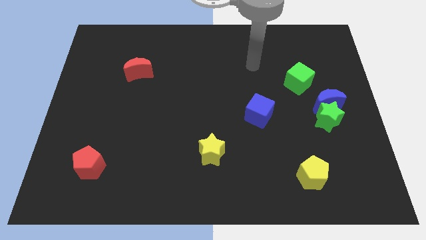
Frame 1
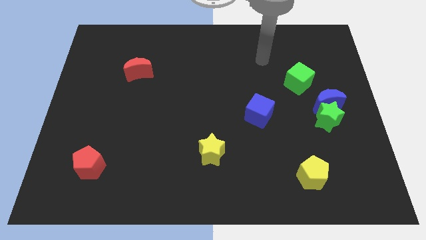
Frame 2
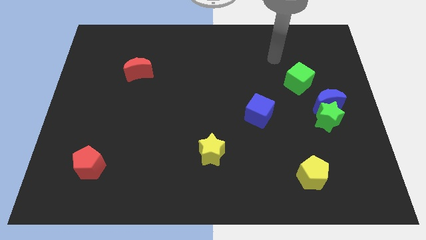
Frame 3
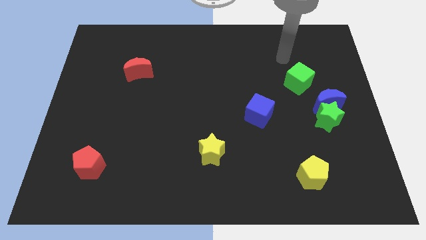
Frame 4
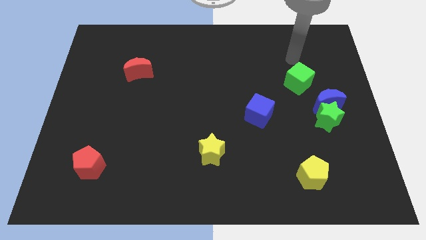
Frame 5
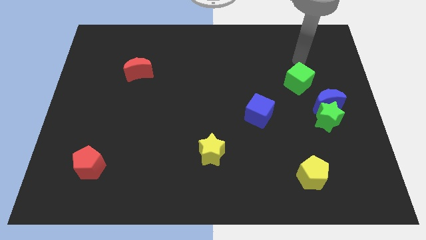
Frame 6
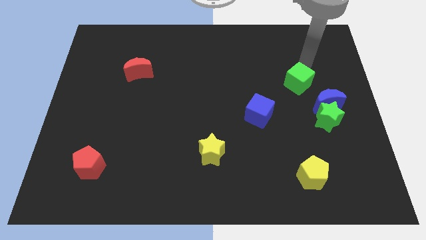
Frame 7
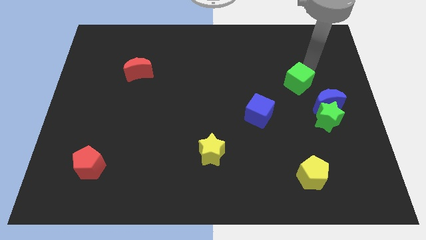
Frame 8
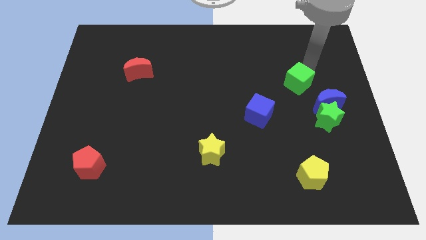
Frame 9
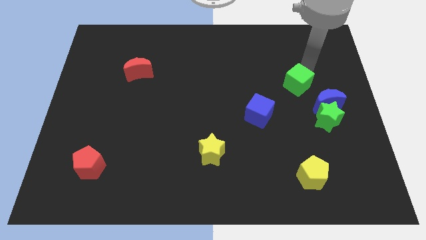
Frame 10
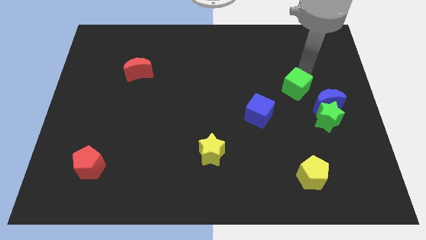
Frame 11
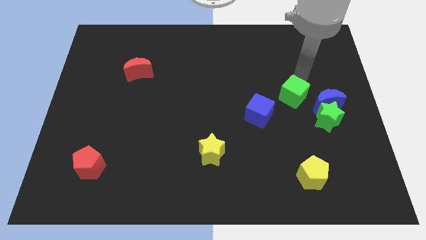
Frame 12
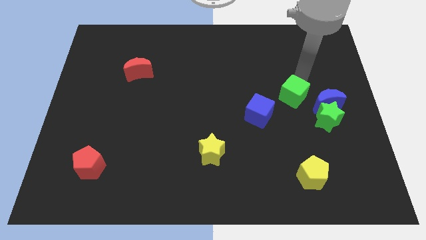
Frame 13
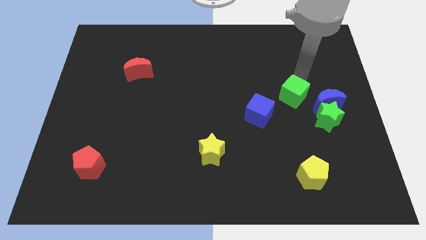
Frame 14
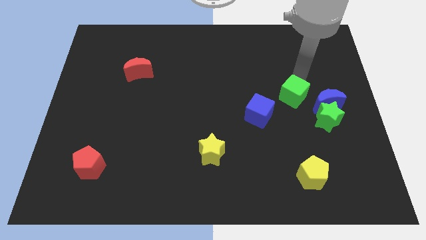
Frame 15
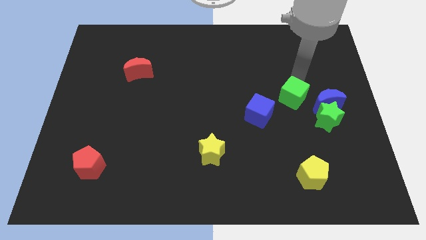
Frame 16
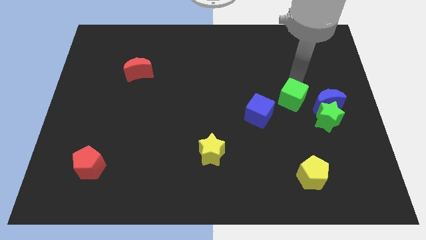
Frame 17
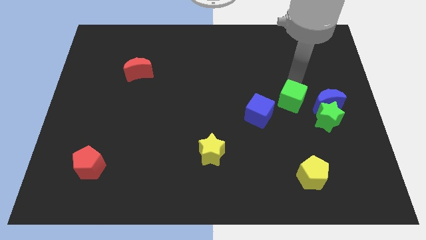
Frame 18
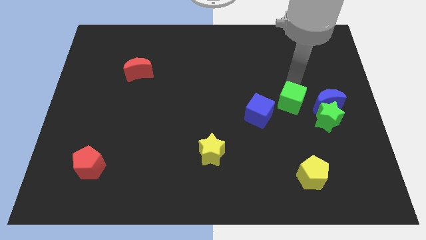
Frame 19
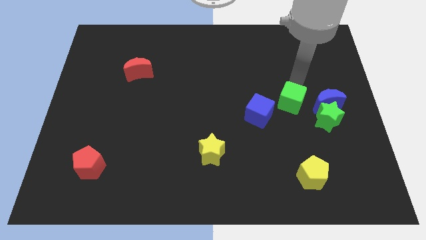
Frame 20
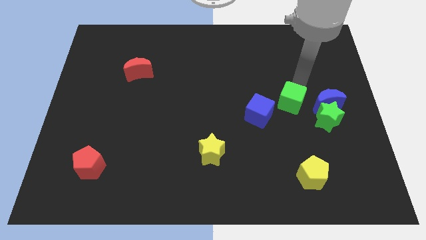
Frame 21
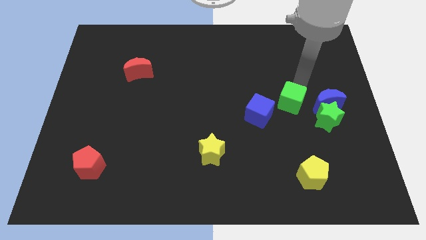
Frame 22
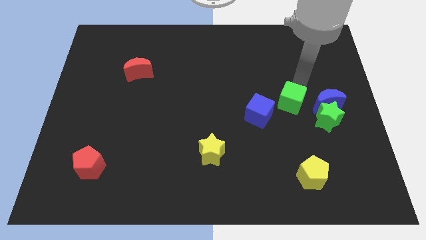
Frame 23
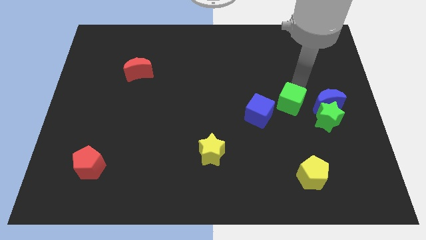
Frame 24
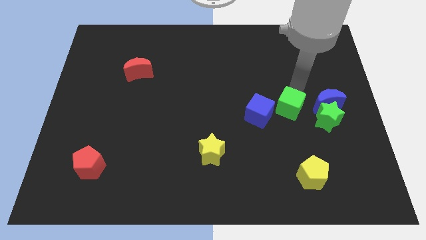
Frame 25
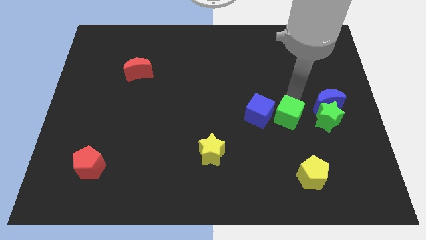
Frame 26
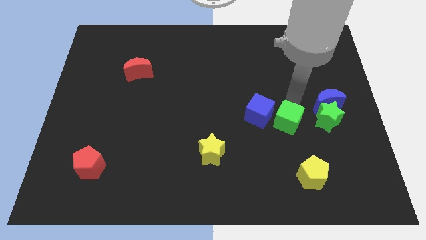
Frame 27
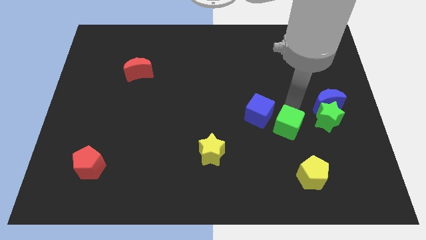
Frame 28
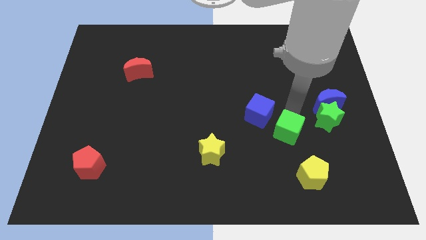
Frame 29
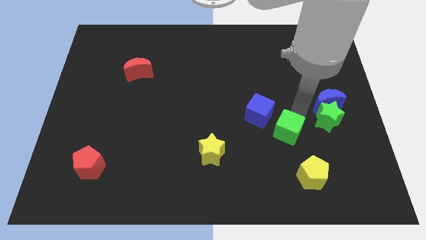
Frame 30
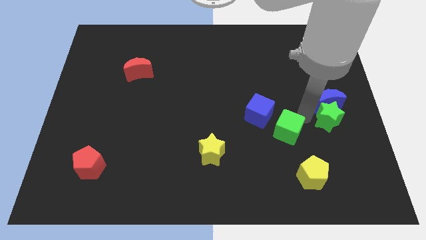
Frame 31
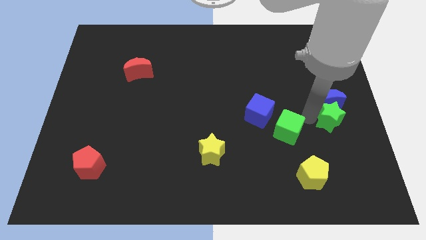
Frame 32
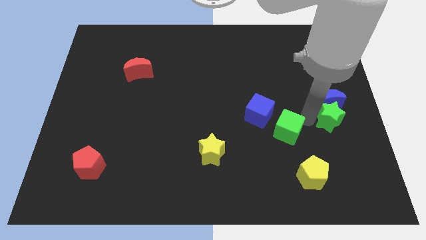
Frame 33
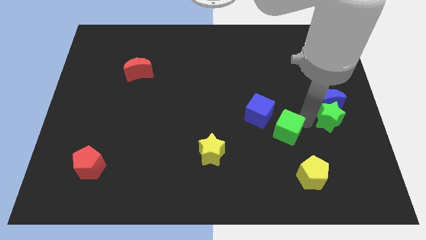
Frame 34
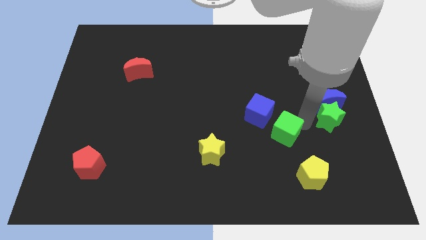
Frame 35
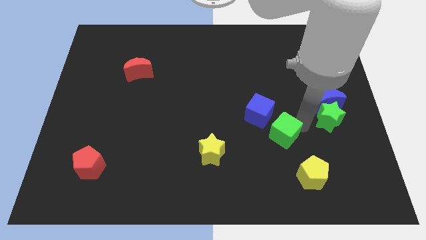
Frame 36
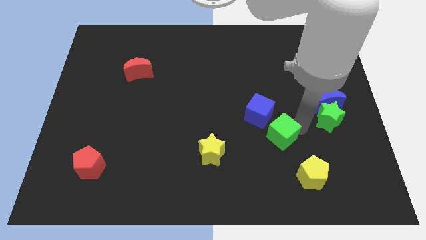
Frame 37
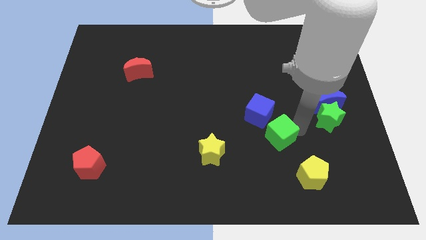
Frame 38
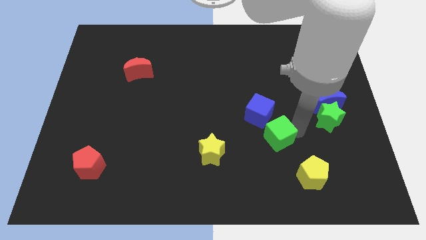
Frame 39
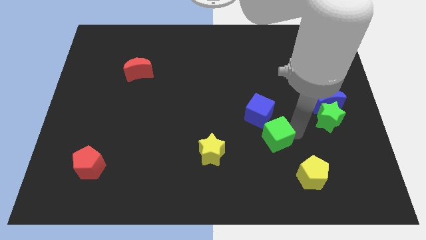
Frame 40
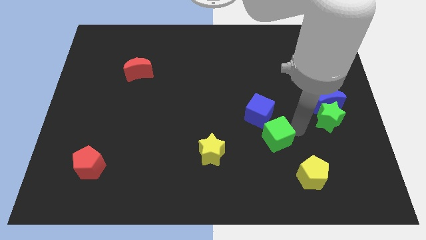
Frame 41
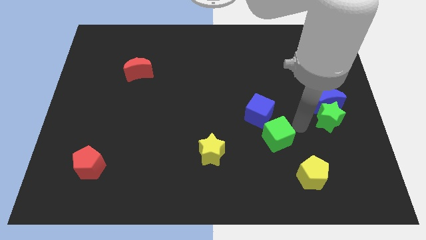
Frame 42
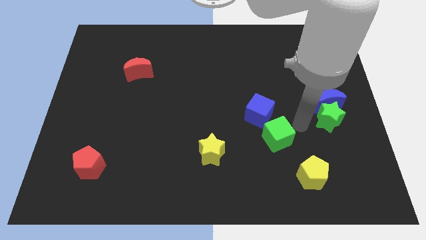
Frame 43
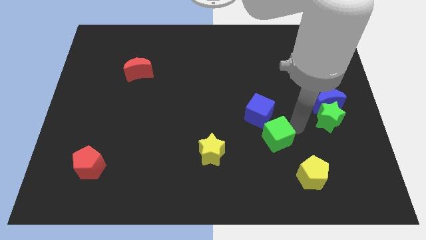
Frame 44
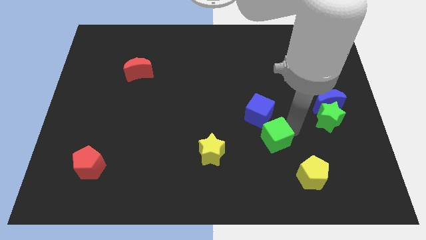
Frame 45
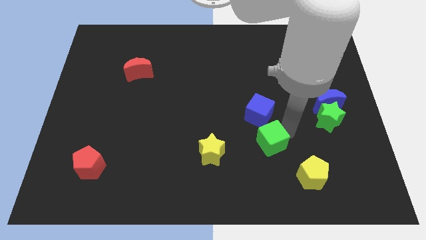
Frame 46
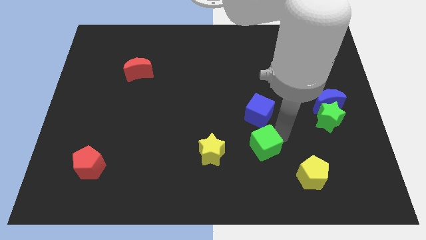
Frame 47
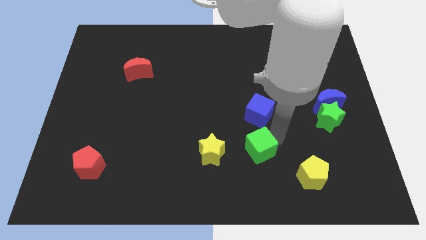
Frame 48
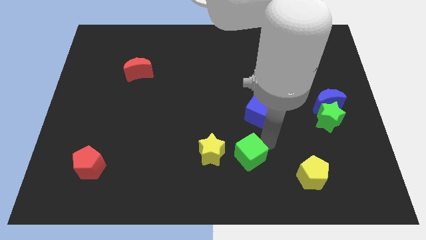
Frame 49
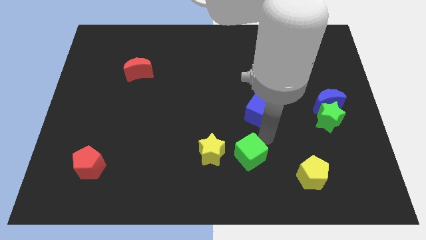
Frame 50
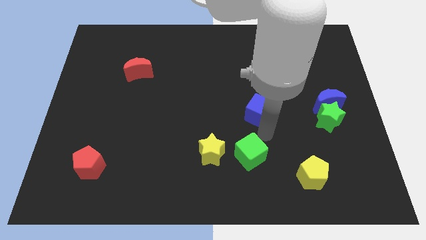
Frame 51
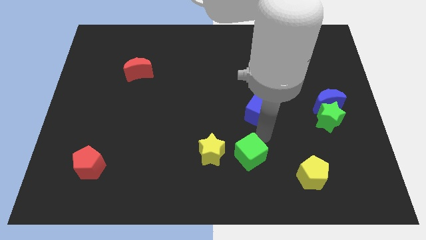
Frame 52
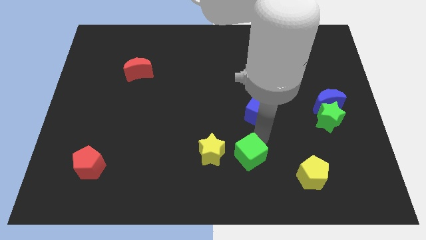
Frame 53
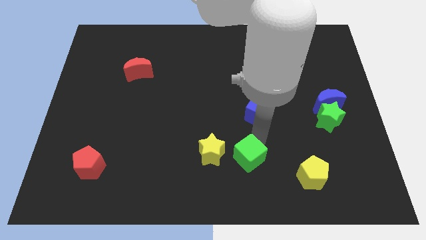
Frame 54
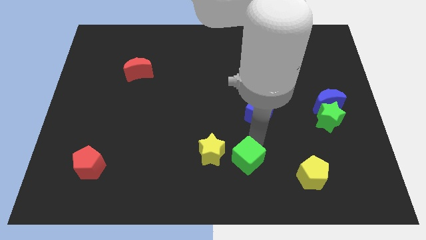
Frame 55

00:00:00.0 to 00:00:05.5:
slide the green cube to the bottom right side of the yellow star

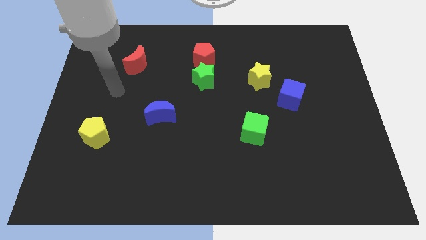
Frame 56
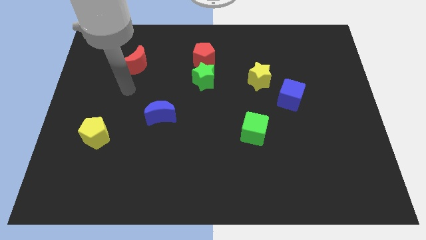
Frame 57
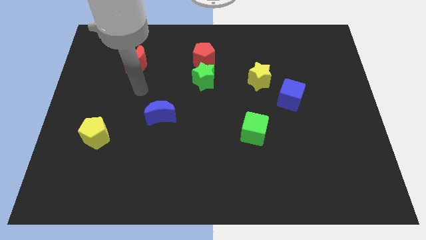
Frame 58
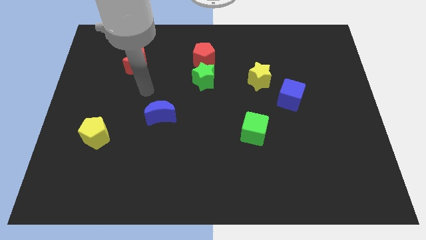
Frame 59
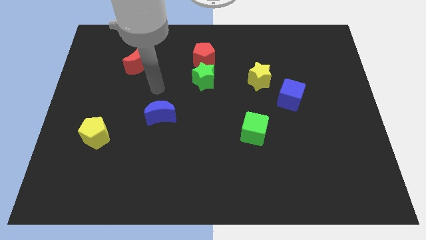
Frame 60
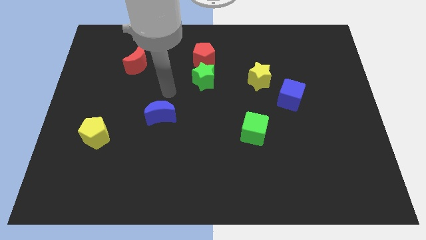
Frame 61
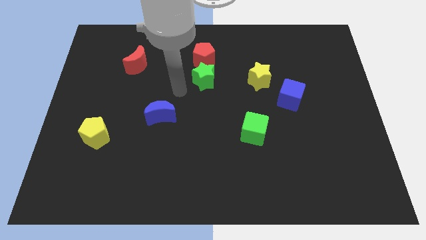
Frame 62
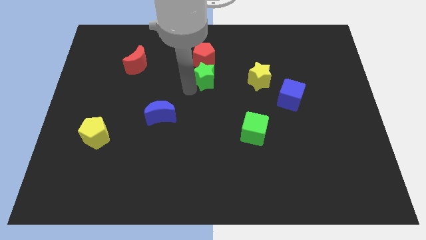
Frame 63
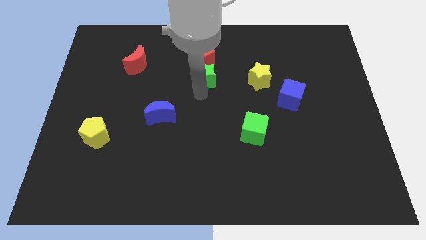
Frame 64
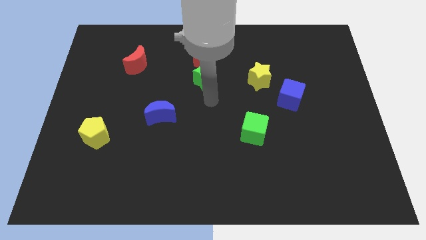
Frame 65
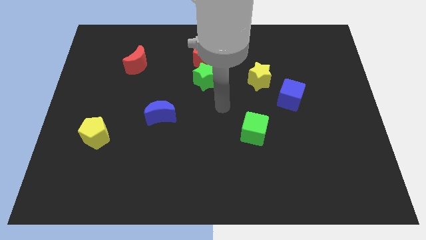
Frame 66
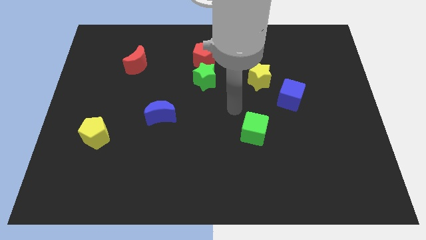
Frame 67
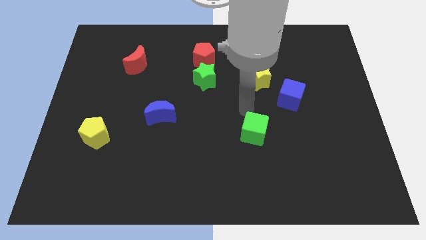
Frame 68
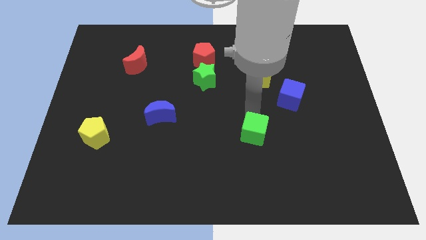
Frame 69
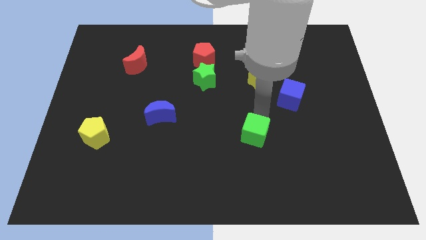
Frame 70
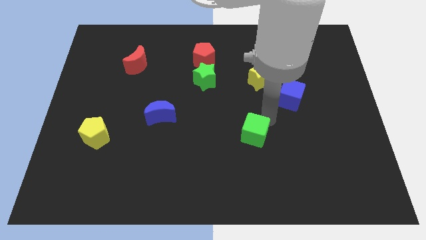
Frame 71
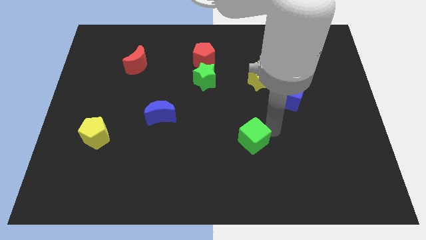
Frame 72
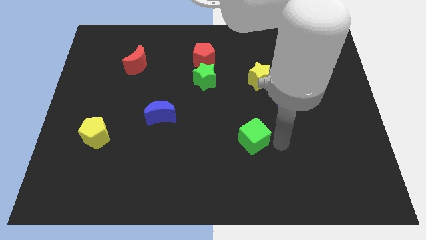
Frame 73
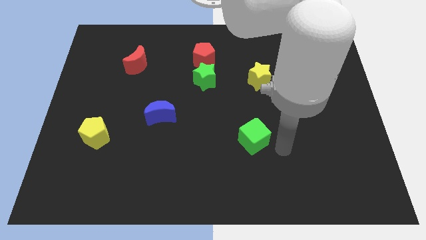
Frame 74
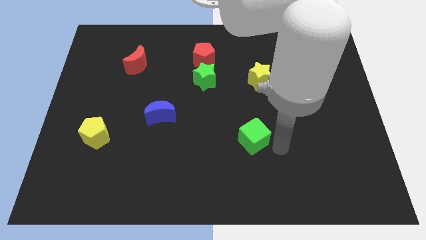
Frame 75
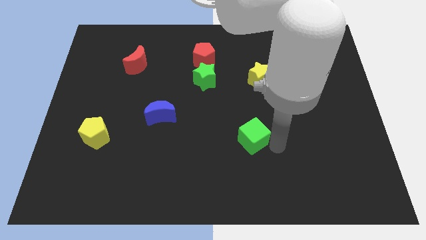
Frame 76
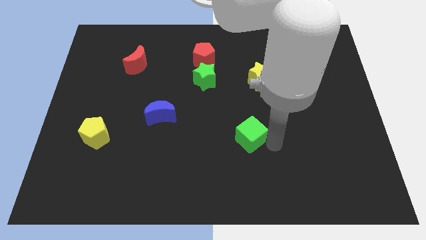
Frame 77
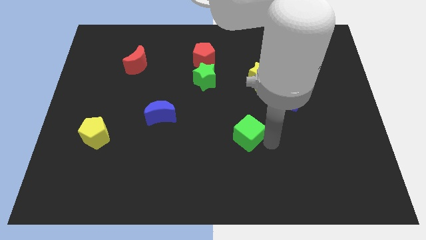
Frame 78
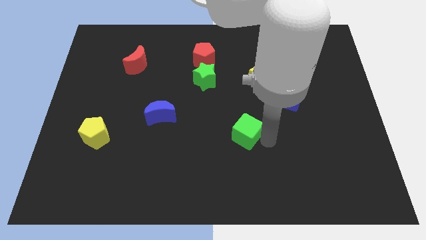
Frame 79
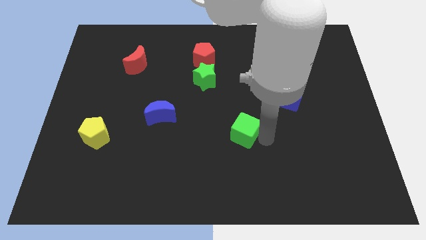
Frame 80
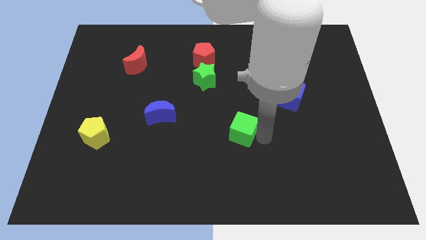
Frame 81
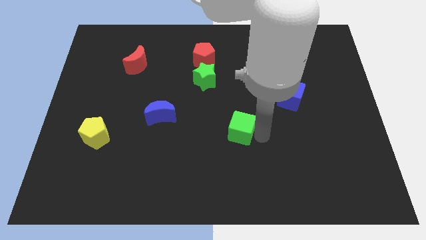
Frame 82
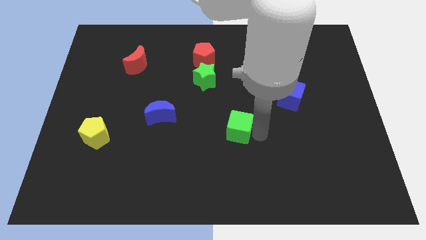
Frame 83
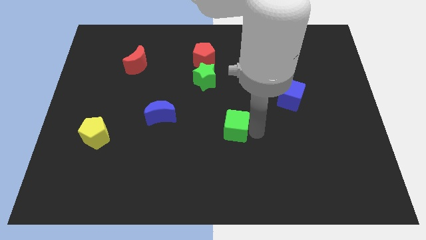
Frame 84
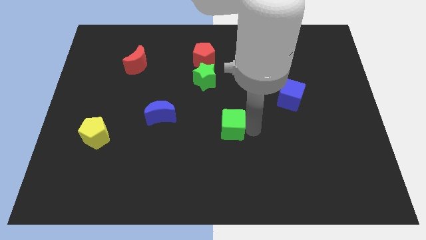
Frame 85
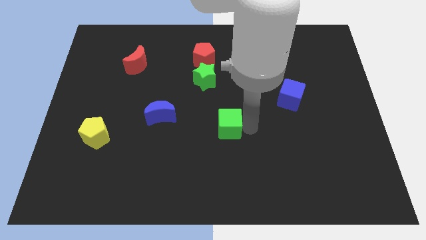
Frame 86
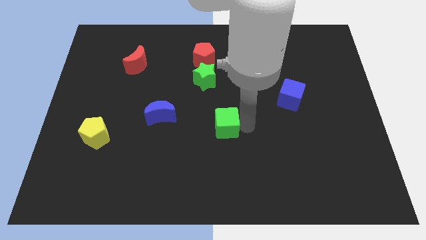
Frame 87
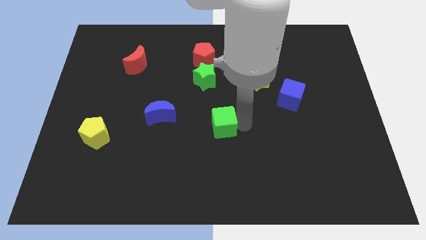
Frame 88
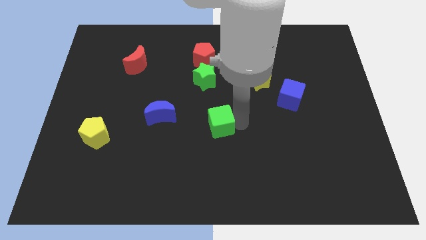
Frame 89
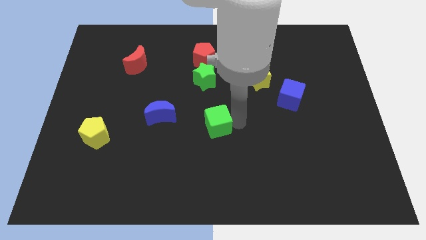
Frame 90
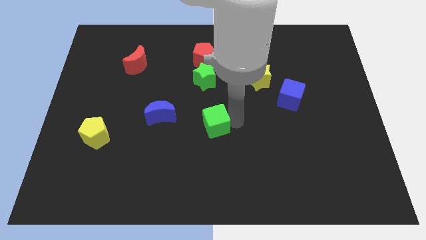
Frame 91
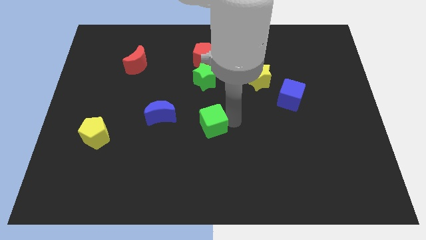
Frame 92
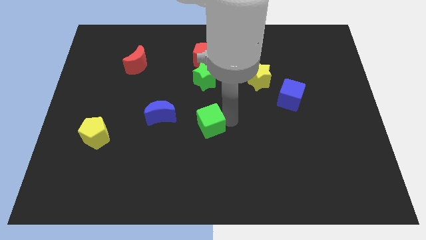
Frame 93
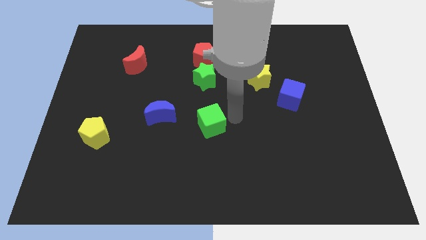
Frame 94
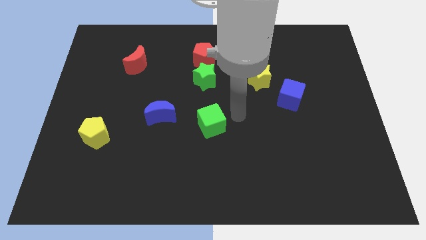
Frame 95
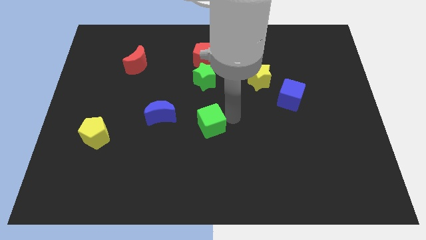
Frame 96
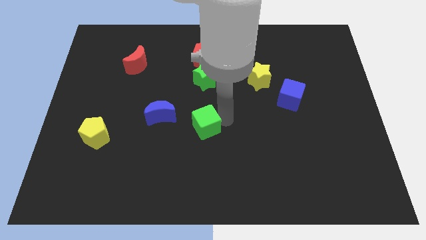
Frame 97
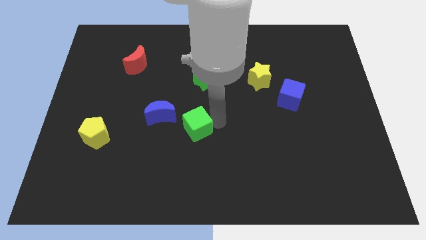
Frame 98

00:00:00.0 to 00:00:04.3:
slide the green cube to the bottom right side of the blue moon
